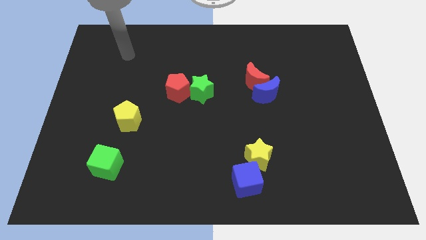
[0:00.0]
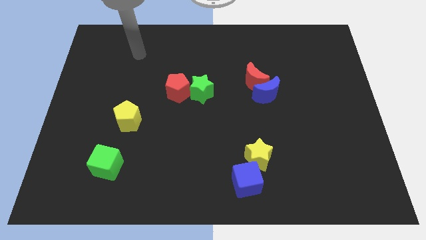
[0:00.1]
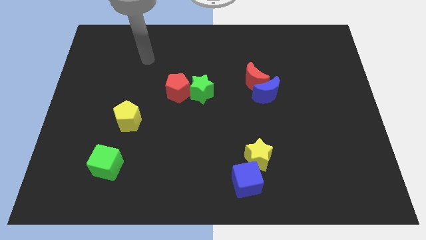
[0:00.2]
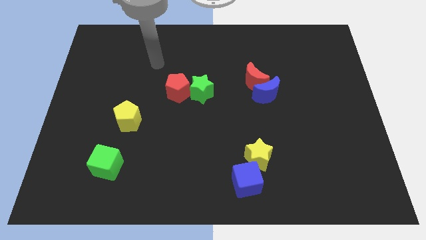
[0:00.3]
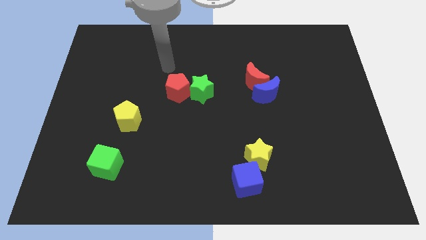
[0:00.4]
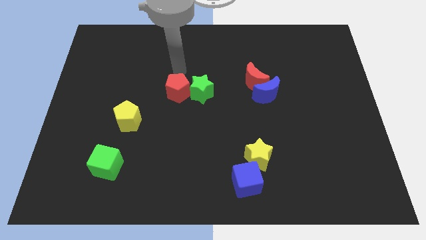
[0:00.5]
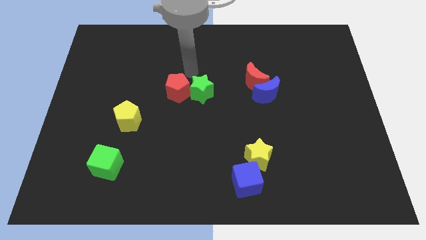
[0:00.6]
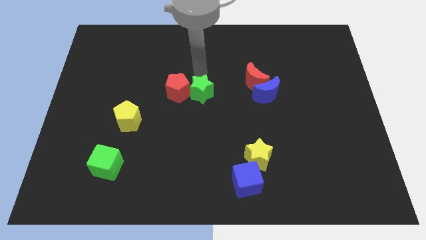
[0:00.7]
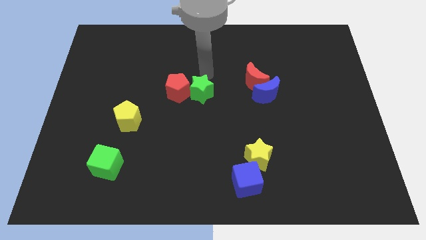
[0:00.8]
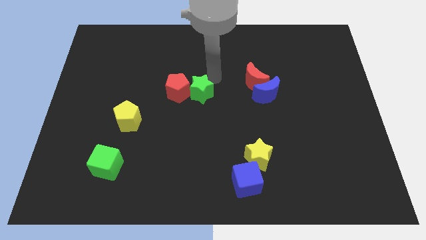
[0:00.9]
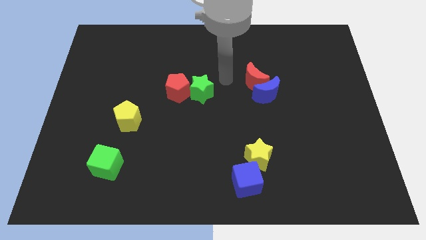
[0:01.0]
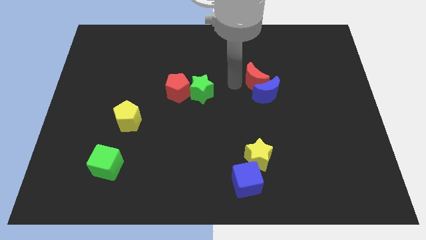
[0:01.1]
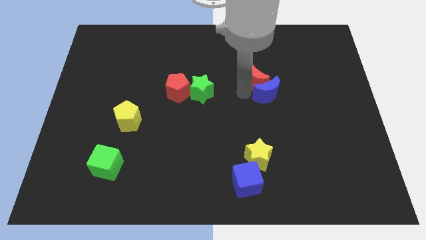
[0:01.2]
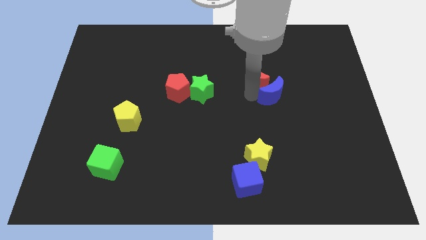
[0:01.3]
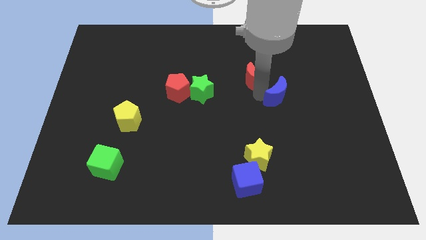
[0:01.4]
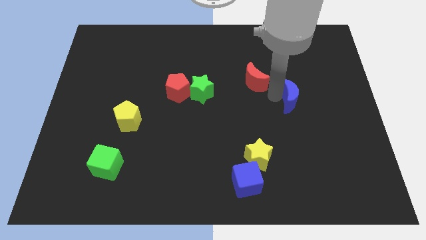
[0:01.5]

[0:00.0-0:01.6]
move the red moon away from the blue moon

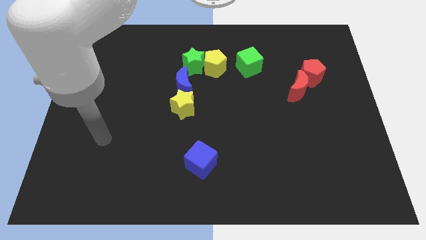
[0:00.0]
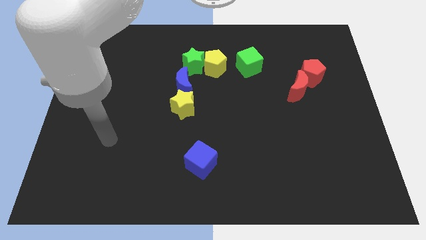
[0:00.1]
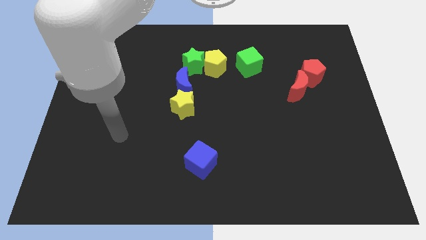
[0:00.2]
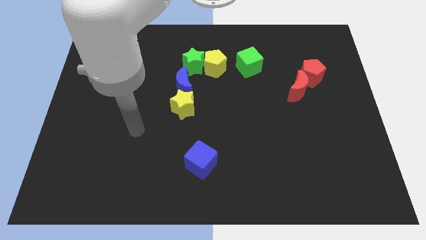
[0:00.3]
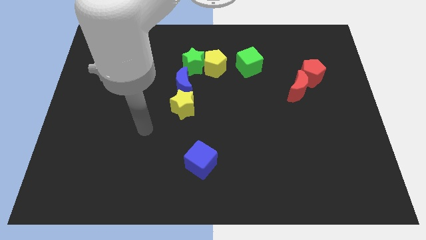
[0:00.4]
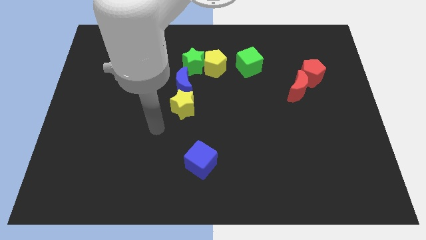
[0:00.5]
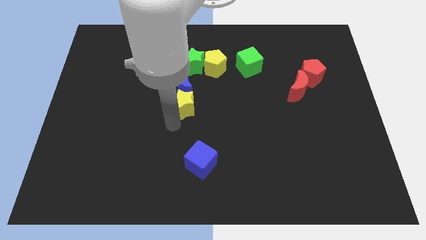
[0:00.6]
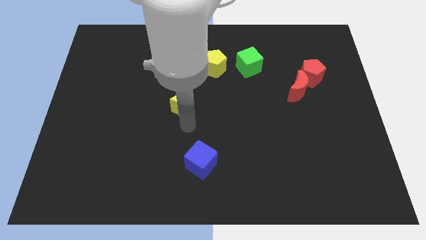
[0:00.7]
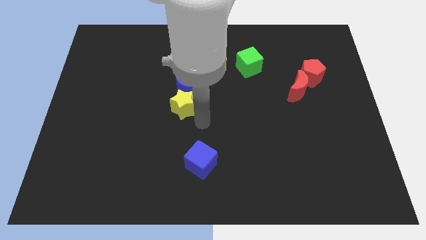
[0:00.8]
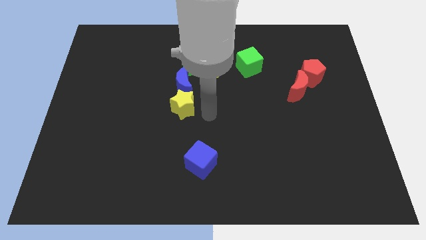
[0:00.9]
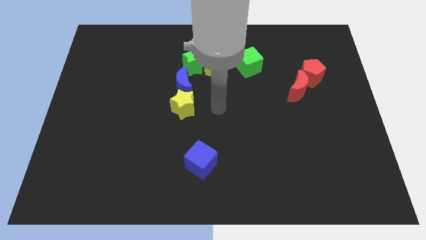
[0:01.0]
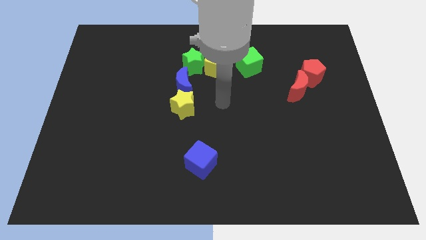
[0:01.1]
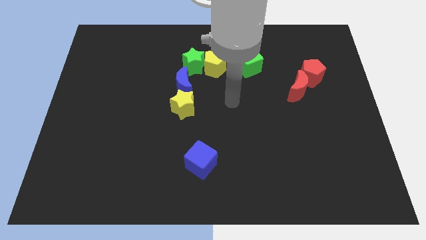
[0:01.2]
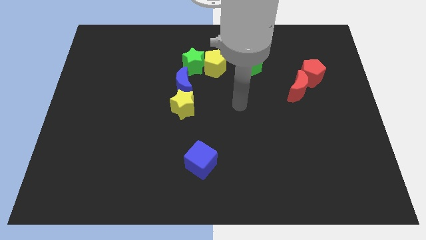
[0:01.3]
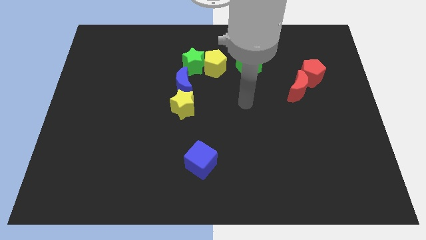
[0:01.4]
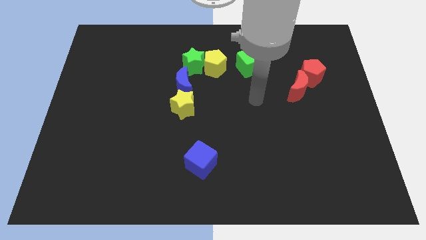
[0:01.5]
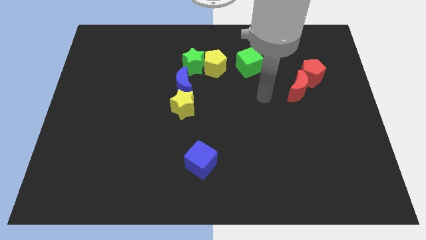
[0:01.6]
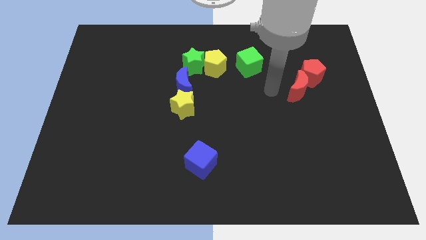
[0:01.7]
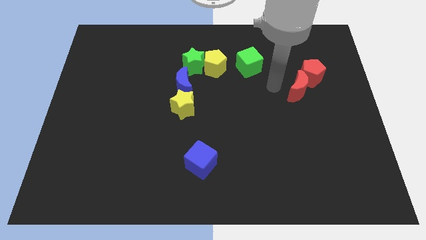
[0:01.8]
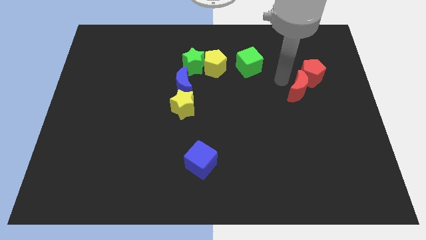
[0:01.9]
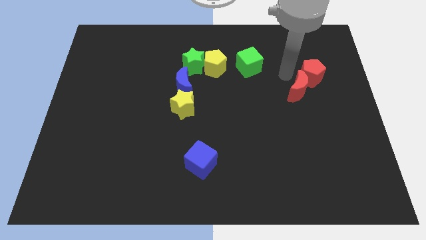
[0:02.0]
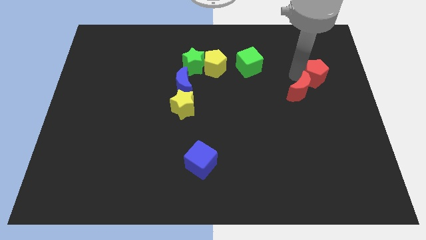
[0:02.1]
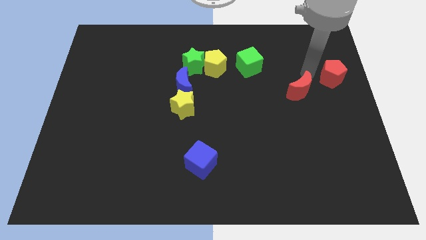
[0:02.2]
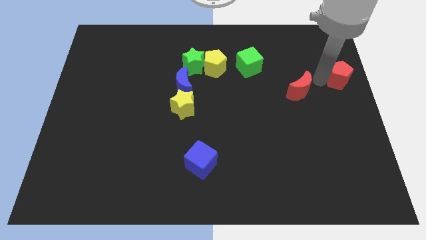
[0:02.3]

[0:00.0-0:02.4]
separate the red moon from the red pentagon

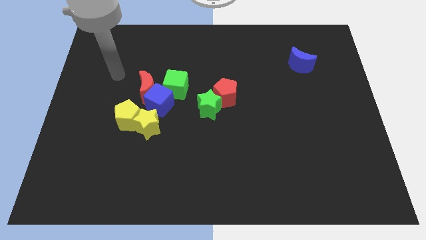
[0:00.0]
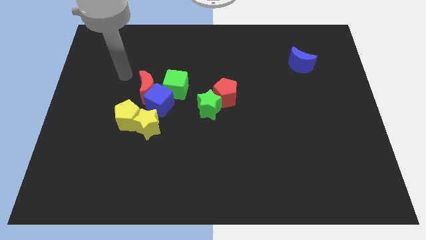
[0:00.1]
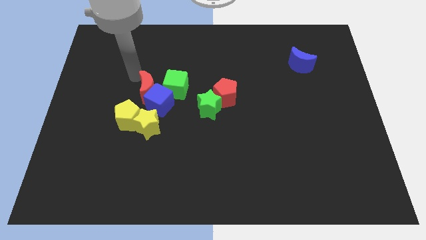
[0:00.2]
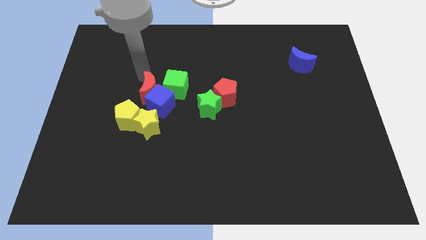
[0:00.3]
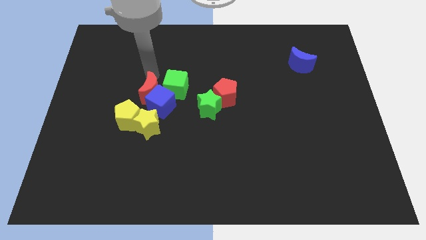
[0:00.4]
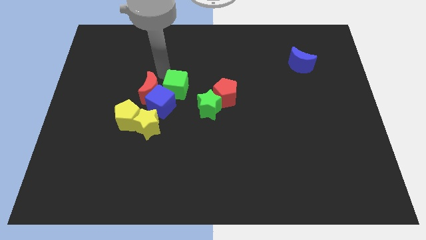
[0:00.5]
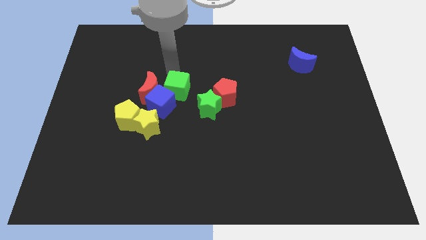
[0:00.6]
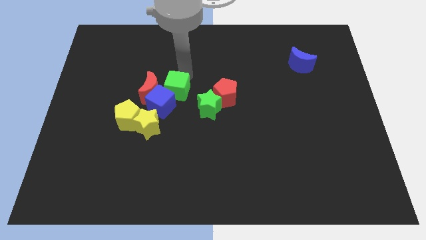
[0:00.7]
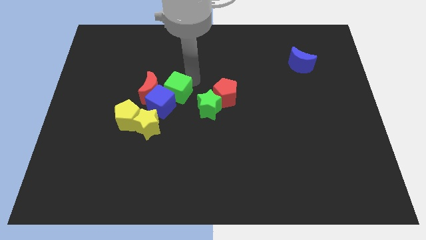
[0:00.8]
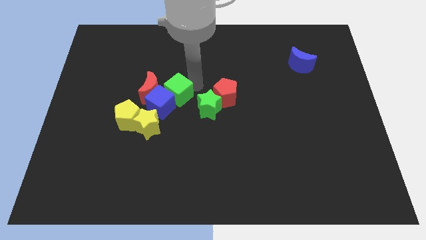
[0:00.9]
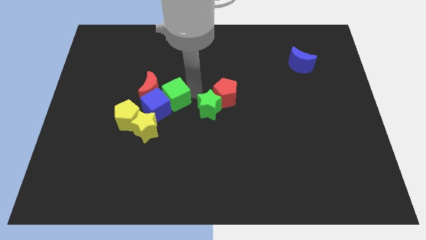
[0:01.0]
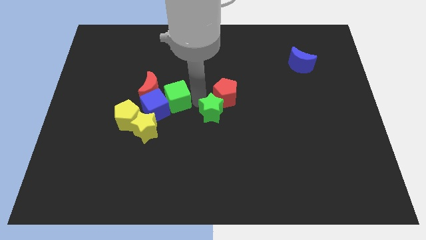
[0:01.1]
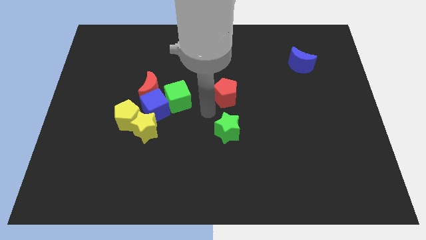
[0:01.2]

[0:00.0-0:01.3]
separate the red pentagon from the green star

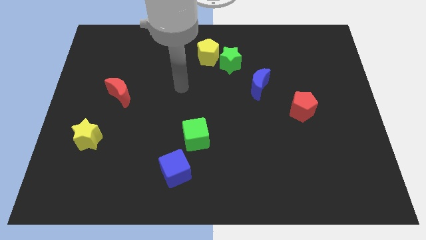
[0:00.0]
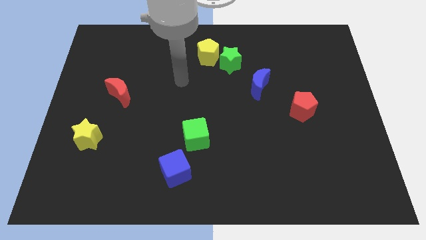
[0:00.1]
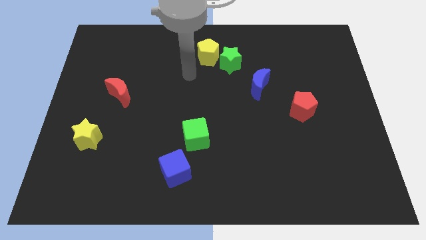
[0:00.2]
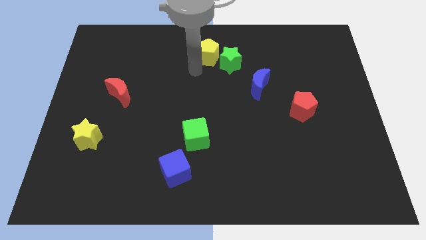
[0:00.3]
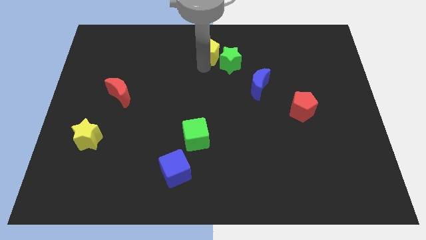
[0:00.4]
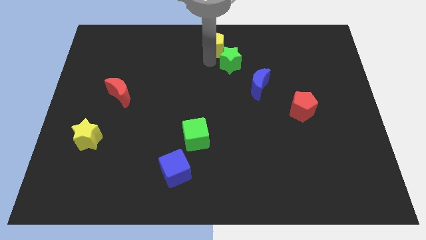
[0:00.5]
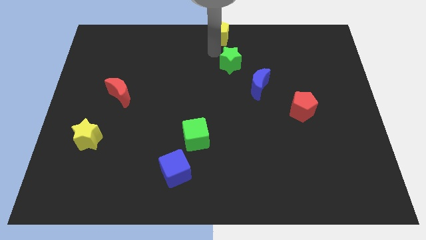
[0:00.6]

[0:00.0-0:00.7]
pull the green star apart from the yellow pentagon

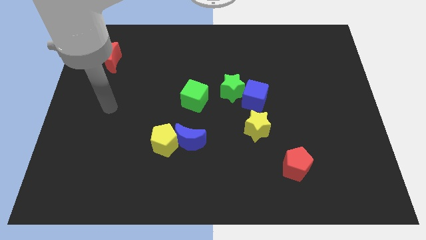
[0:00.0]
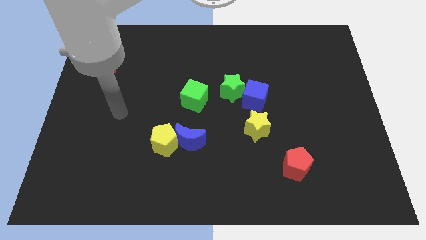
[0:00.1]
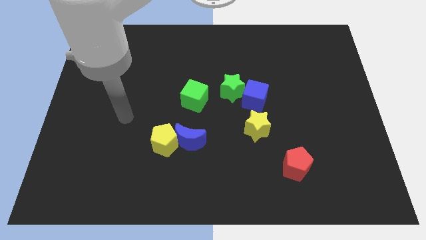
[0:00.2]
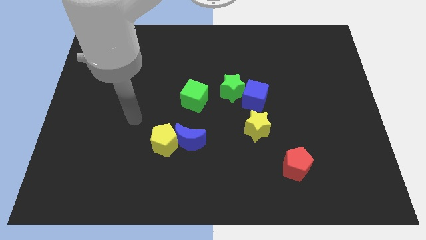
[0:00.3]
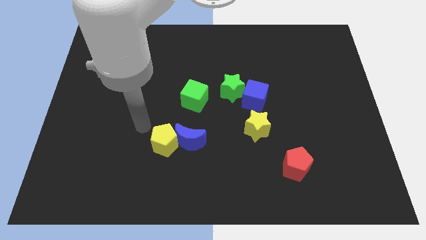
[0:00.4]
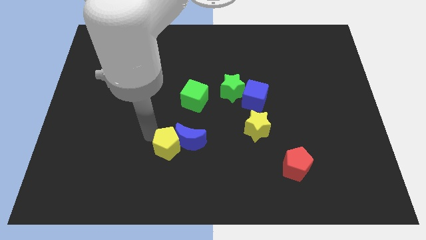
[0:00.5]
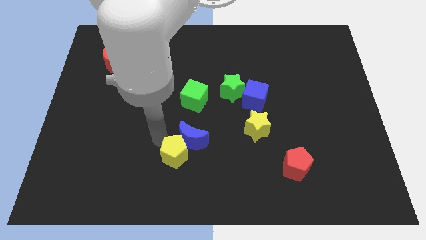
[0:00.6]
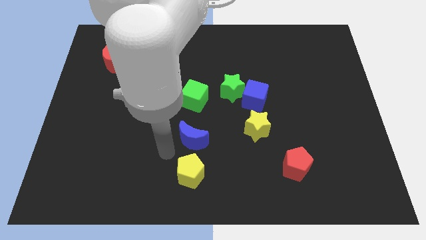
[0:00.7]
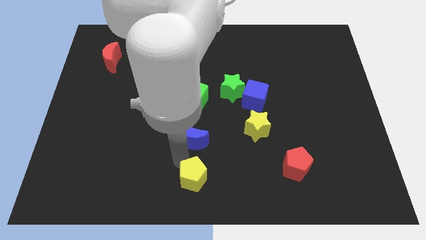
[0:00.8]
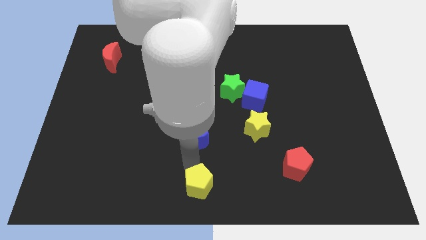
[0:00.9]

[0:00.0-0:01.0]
separate the blue moon from the yellow pentagon

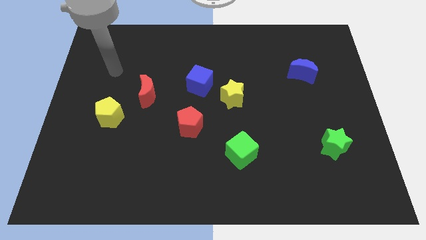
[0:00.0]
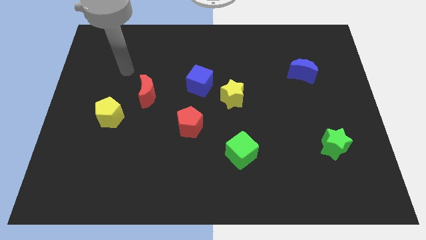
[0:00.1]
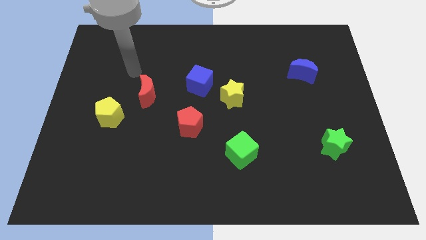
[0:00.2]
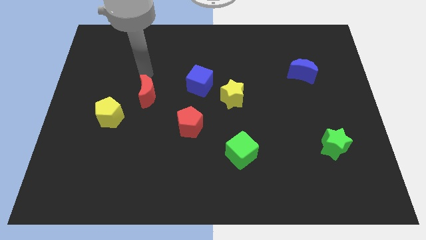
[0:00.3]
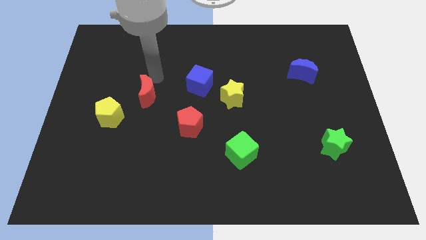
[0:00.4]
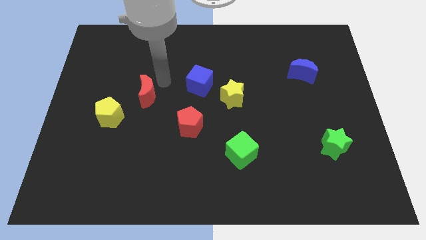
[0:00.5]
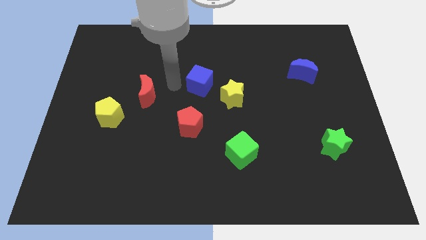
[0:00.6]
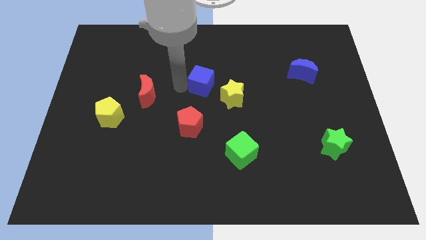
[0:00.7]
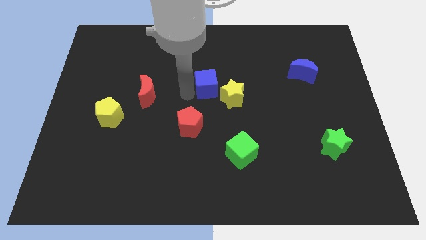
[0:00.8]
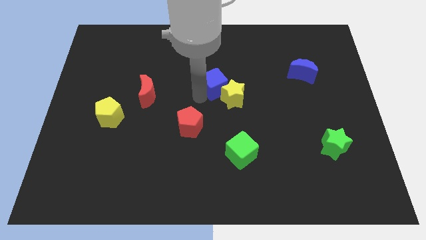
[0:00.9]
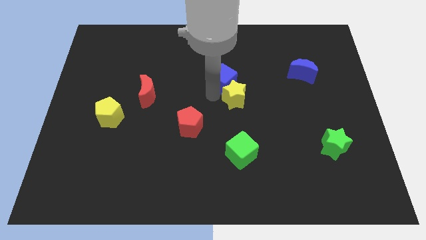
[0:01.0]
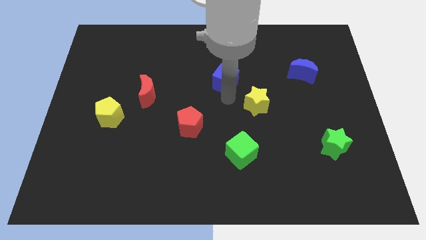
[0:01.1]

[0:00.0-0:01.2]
move the blue cube away from the yellow star

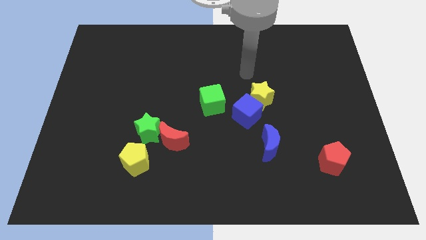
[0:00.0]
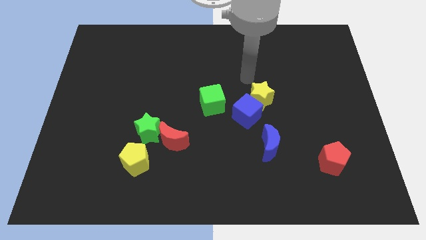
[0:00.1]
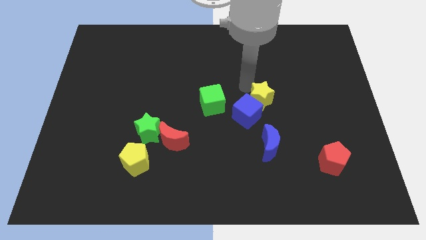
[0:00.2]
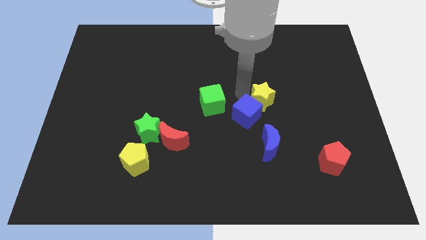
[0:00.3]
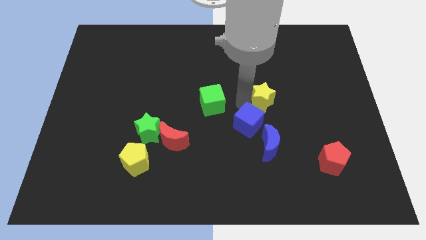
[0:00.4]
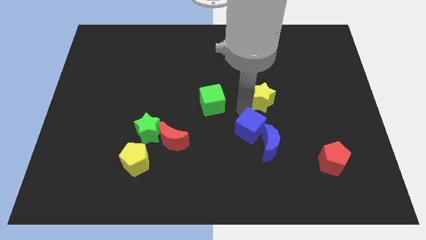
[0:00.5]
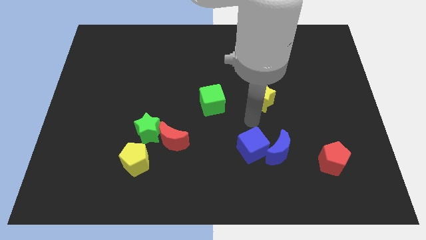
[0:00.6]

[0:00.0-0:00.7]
pull the yellow star apart from the blue cube

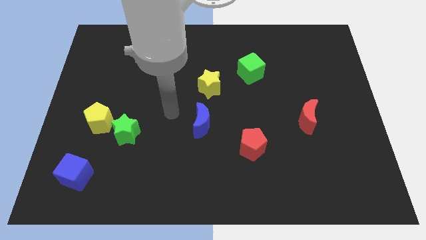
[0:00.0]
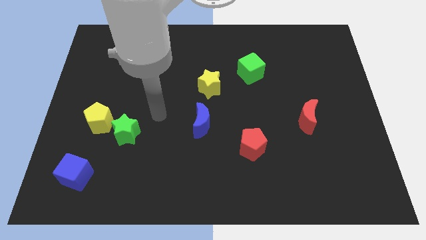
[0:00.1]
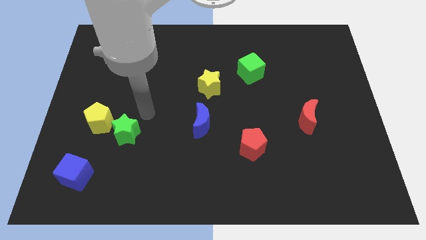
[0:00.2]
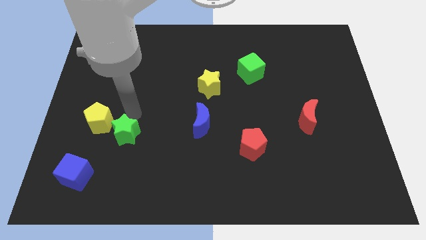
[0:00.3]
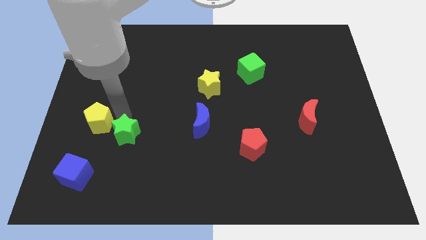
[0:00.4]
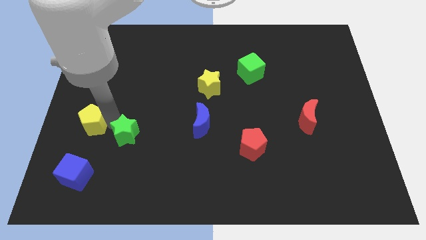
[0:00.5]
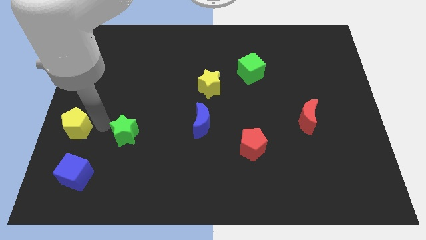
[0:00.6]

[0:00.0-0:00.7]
move the green star away from the yellow pentagon
